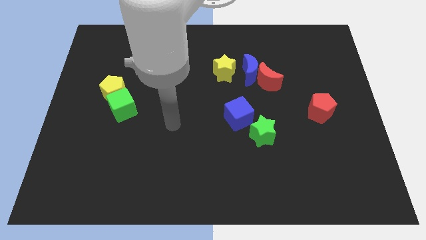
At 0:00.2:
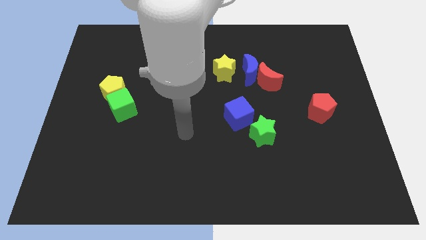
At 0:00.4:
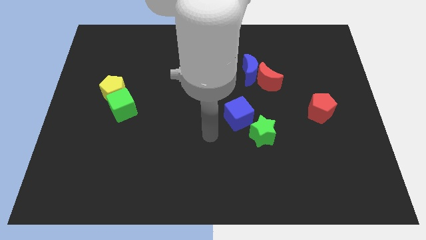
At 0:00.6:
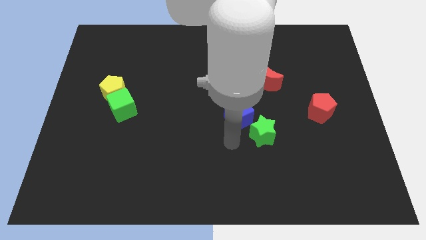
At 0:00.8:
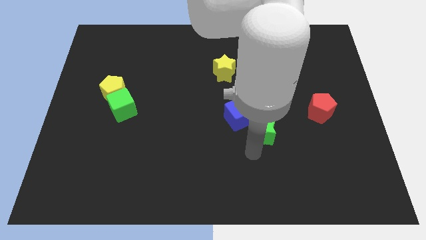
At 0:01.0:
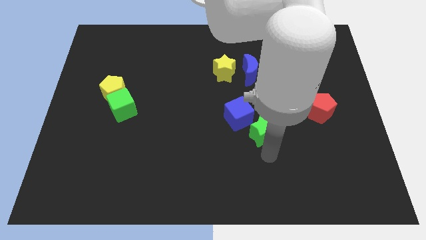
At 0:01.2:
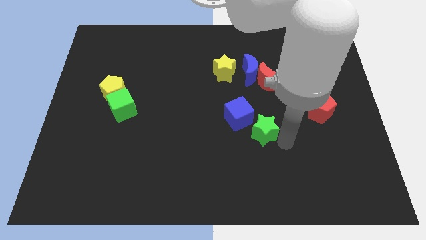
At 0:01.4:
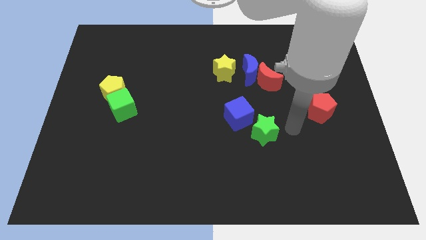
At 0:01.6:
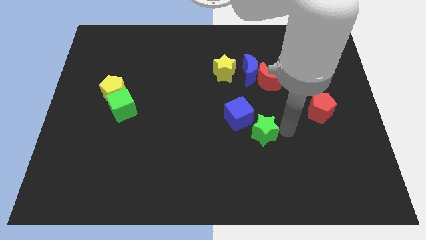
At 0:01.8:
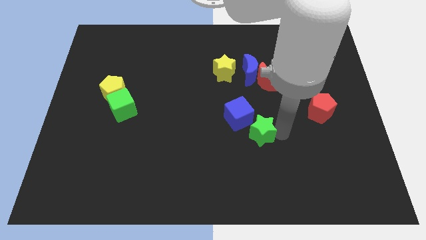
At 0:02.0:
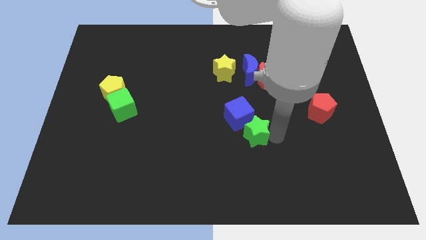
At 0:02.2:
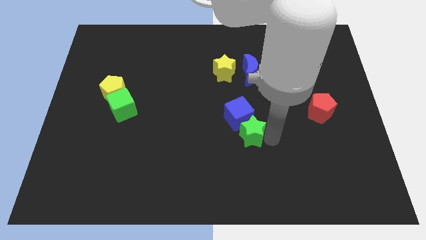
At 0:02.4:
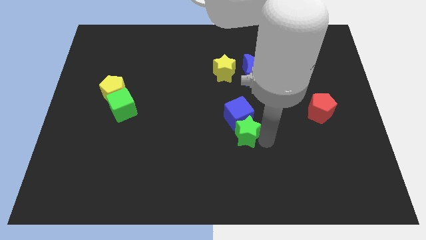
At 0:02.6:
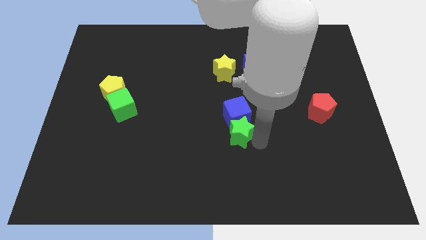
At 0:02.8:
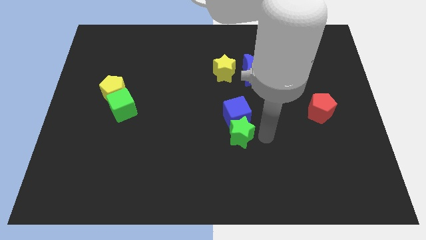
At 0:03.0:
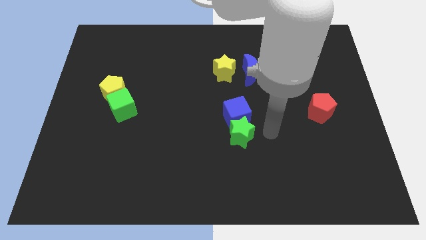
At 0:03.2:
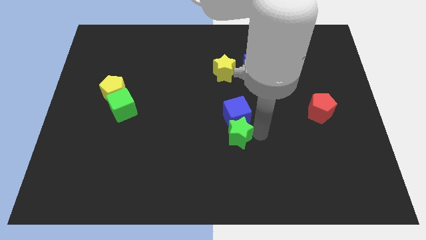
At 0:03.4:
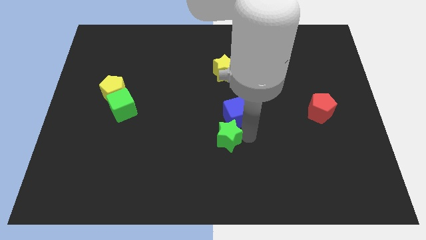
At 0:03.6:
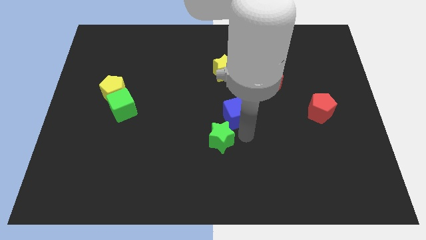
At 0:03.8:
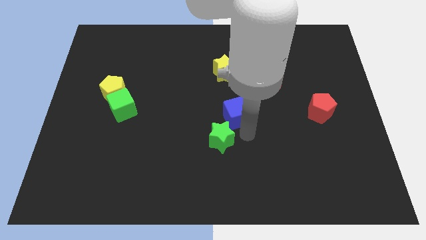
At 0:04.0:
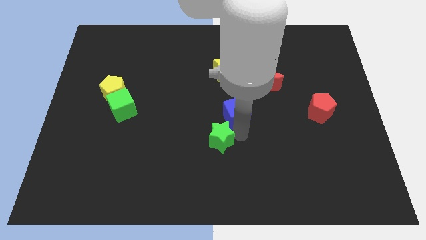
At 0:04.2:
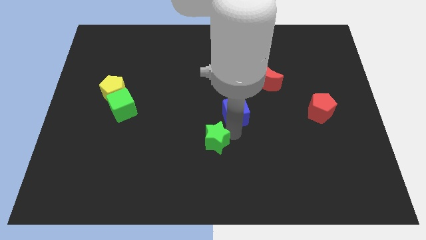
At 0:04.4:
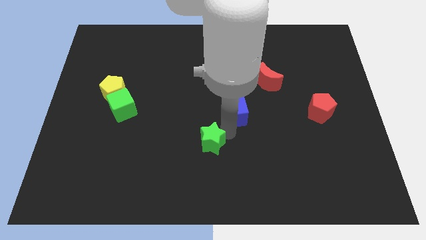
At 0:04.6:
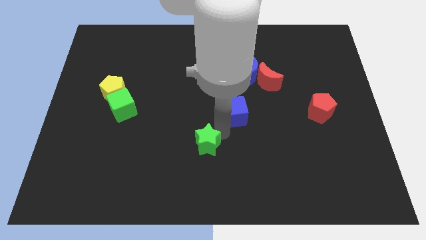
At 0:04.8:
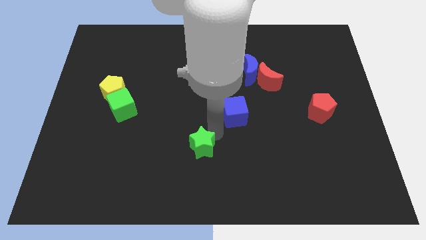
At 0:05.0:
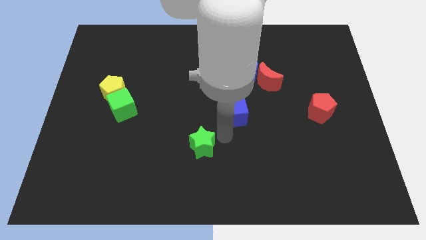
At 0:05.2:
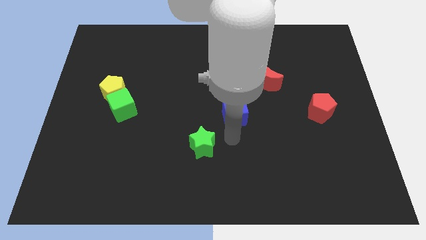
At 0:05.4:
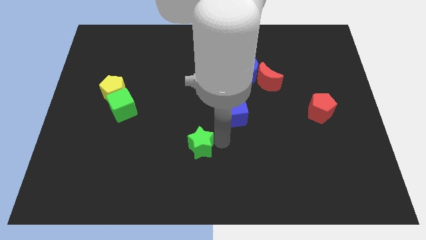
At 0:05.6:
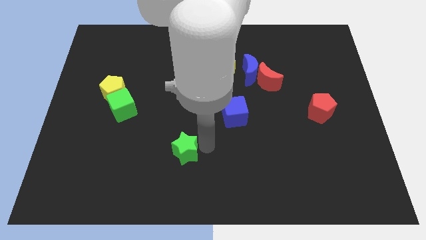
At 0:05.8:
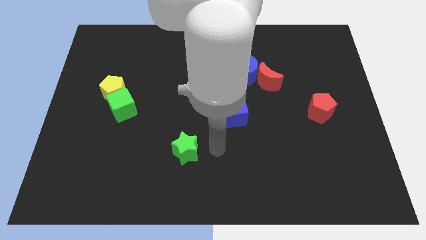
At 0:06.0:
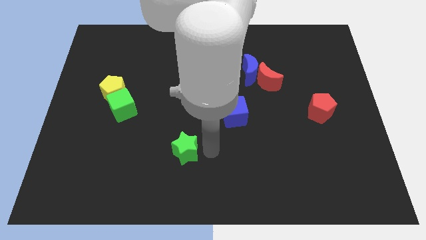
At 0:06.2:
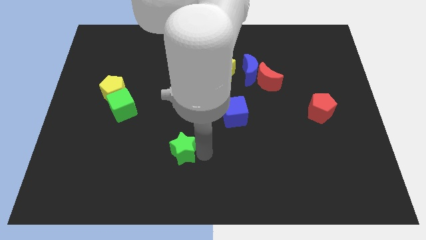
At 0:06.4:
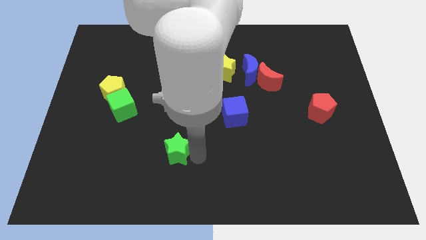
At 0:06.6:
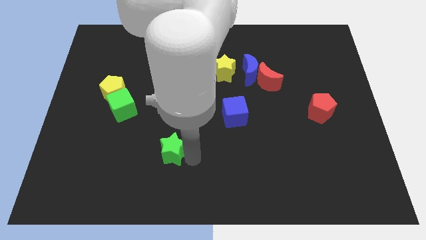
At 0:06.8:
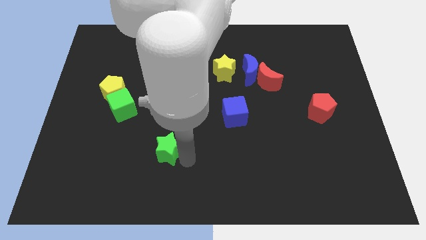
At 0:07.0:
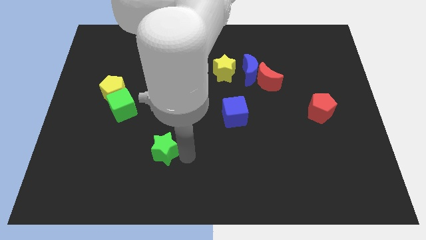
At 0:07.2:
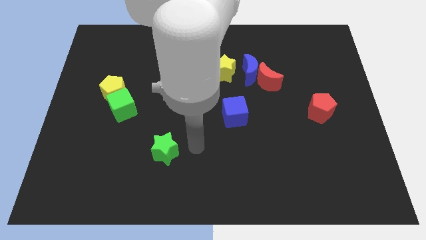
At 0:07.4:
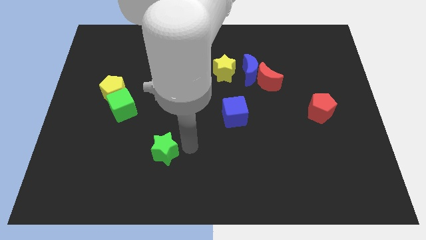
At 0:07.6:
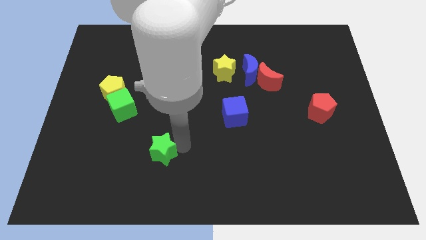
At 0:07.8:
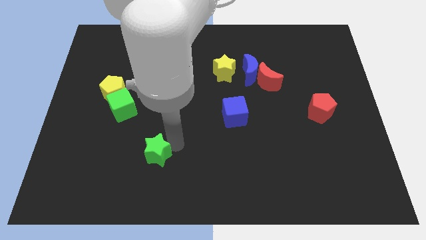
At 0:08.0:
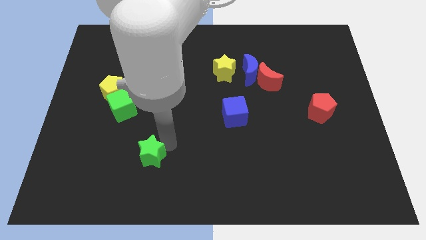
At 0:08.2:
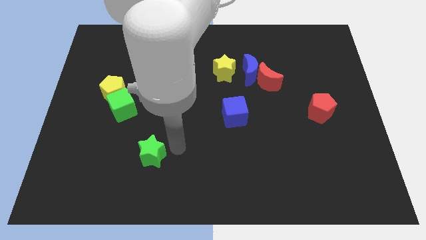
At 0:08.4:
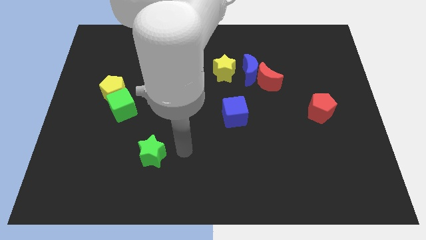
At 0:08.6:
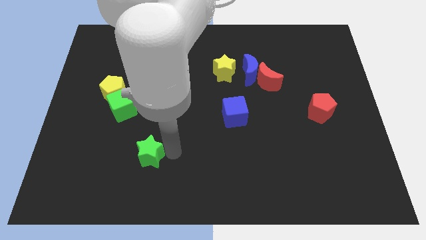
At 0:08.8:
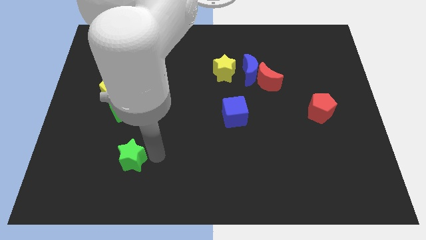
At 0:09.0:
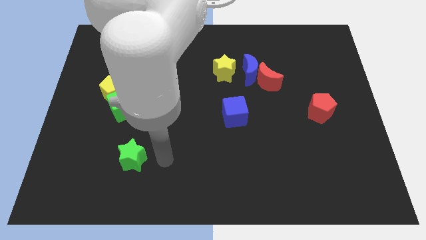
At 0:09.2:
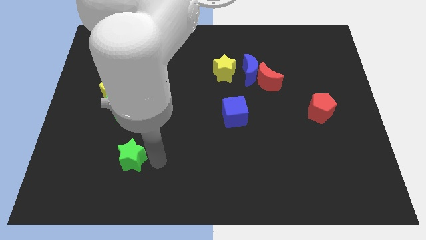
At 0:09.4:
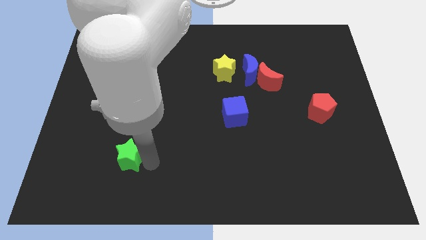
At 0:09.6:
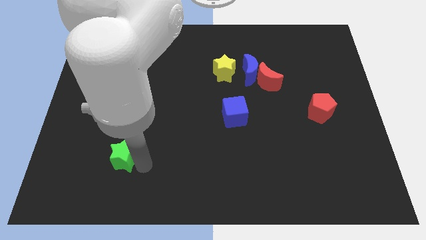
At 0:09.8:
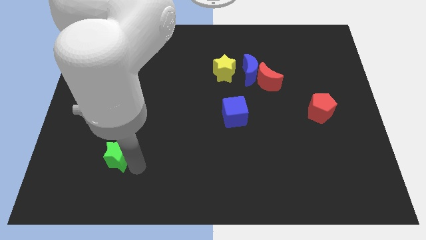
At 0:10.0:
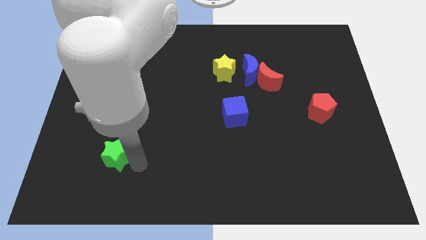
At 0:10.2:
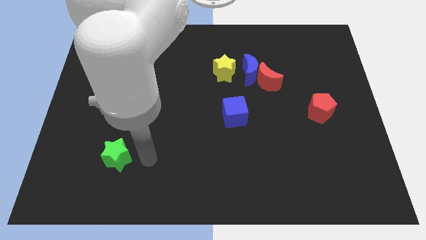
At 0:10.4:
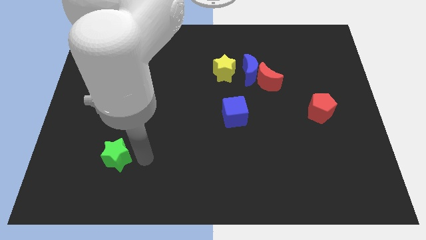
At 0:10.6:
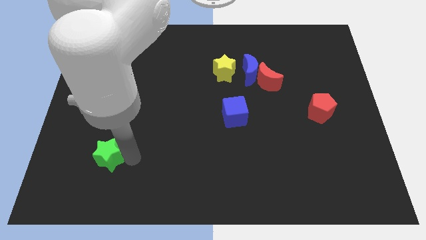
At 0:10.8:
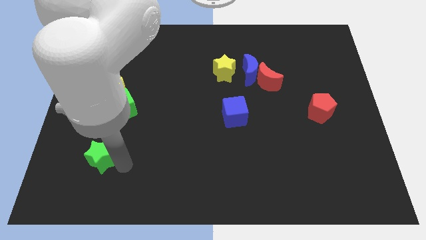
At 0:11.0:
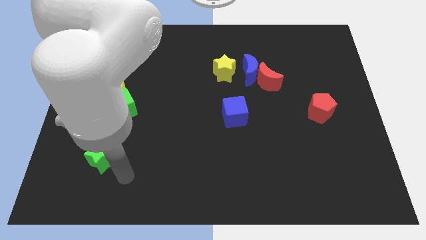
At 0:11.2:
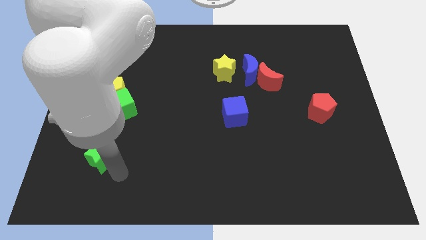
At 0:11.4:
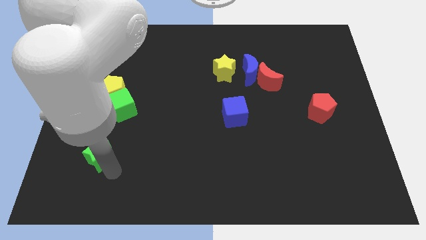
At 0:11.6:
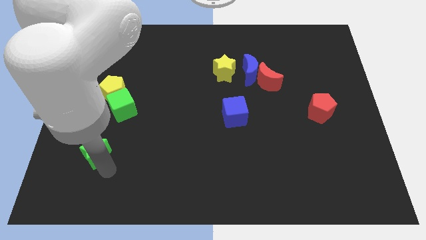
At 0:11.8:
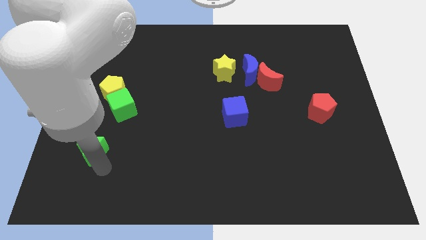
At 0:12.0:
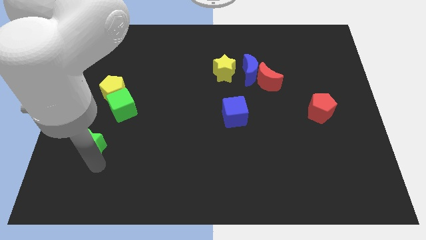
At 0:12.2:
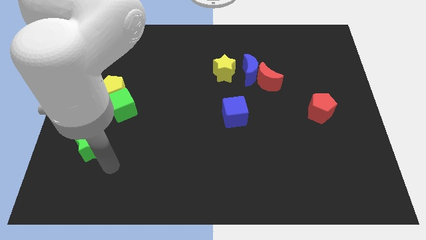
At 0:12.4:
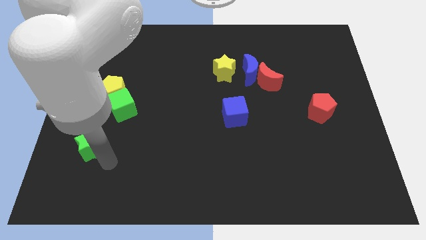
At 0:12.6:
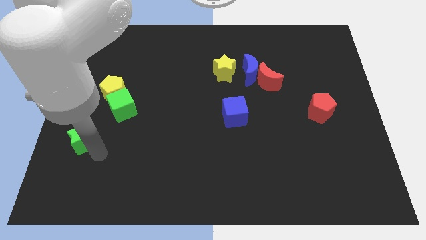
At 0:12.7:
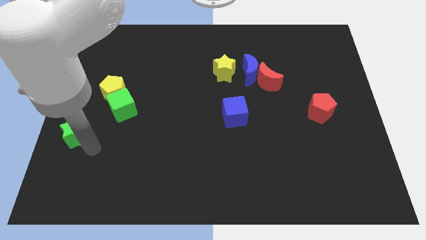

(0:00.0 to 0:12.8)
slide the green star to the left side

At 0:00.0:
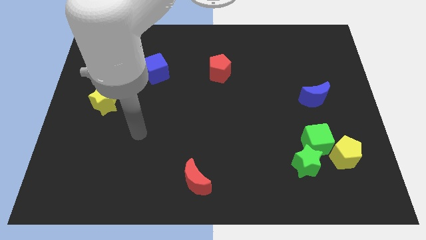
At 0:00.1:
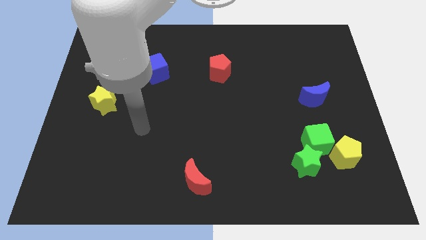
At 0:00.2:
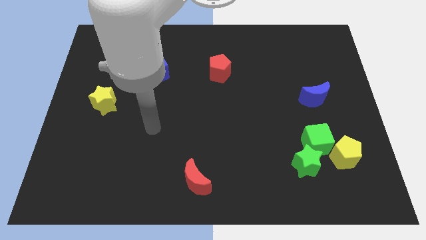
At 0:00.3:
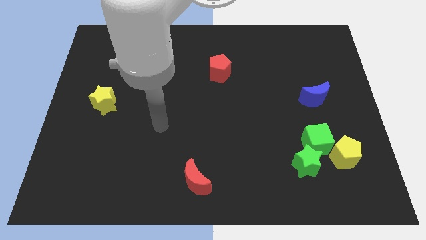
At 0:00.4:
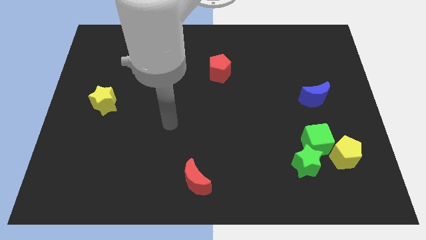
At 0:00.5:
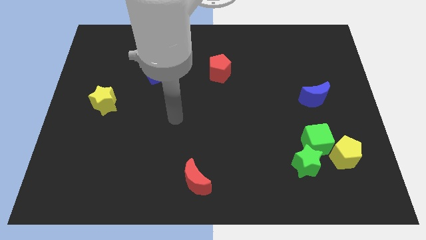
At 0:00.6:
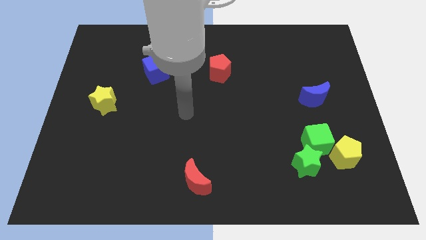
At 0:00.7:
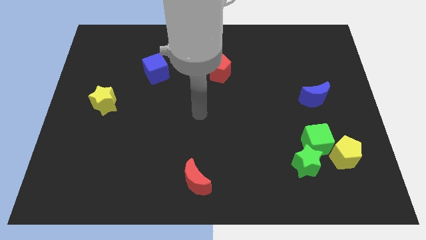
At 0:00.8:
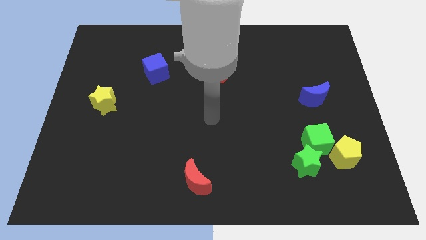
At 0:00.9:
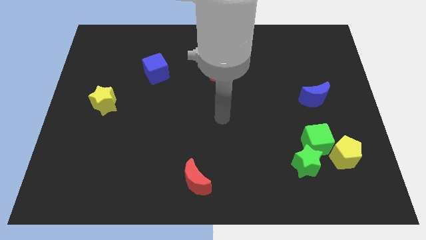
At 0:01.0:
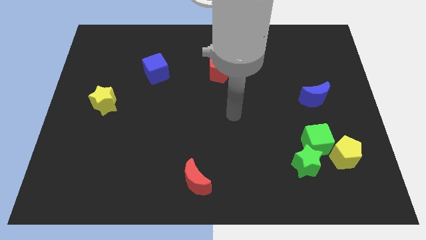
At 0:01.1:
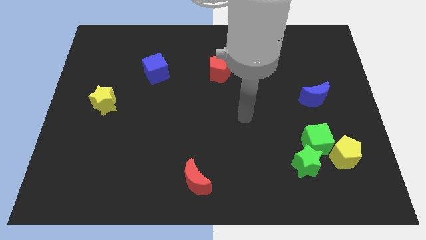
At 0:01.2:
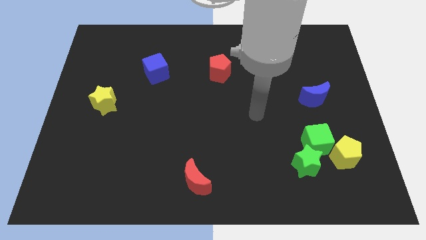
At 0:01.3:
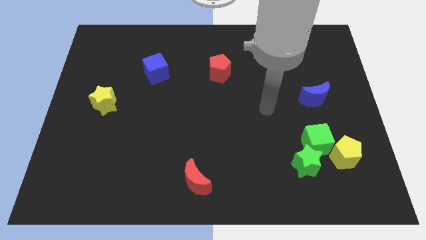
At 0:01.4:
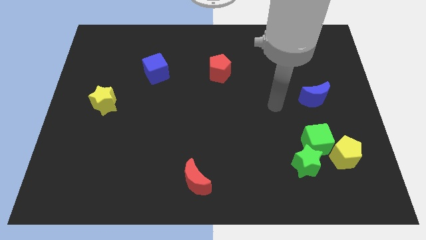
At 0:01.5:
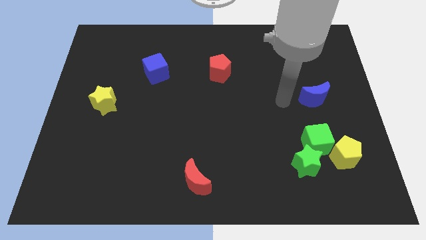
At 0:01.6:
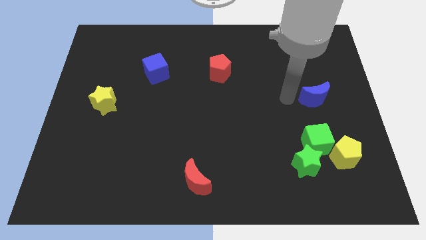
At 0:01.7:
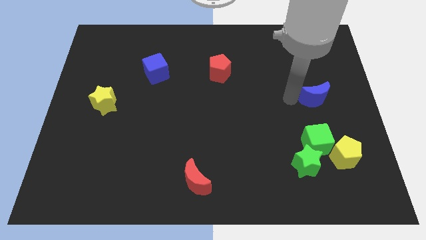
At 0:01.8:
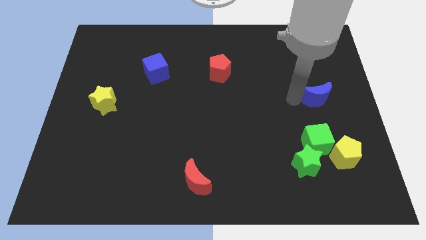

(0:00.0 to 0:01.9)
push the blue moon to the center right
